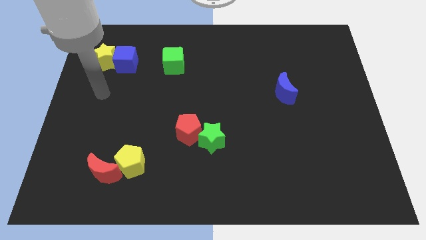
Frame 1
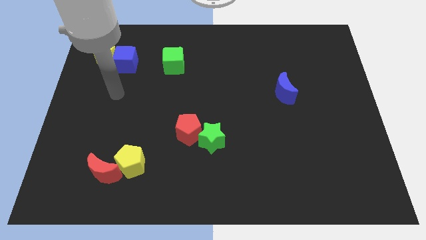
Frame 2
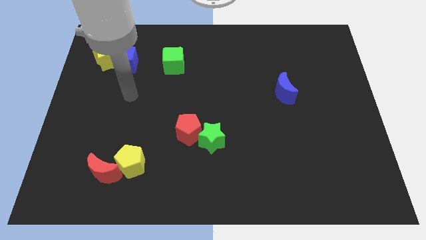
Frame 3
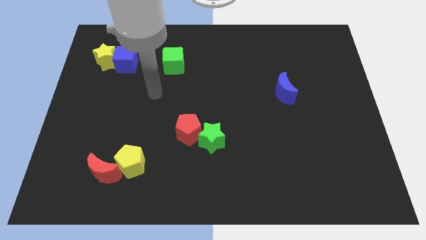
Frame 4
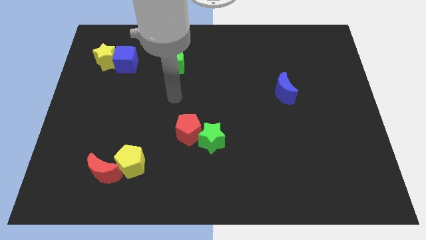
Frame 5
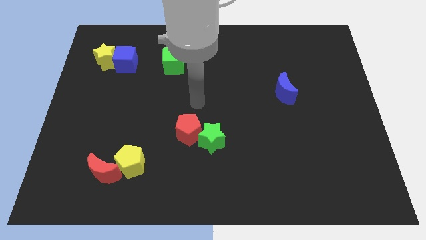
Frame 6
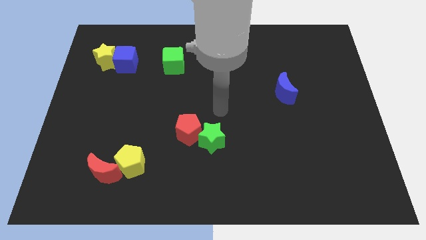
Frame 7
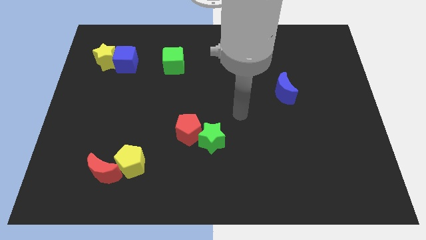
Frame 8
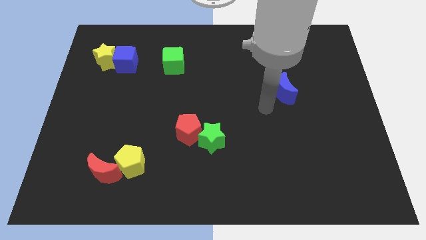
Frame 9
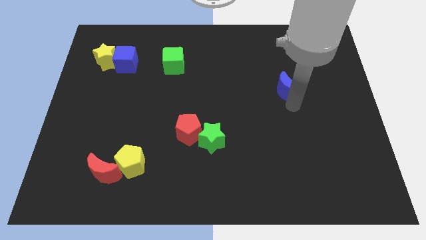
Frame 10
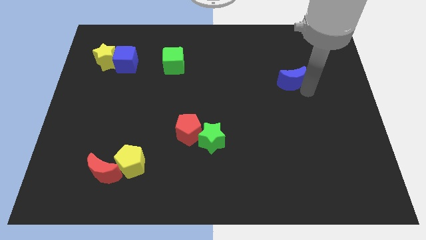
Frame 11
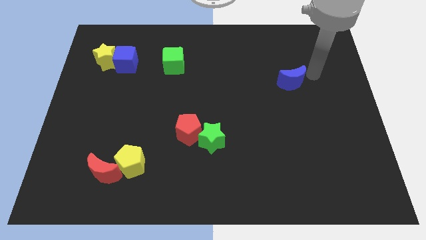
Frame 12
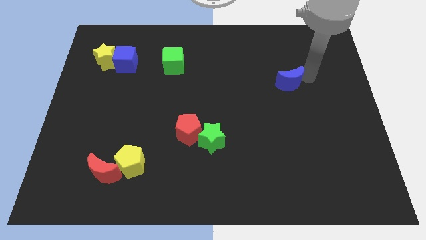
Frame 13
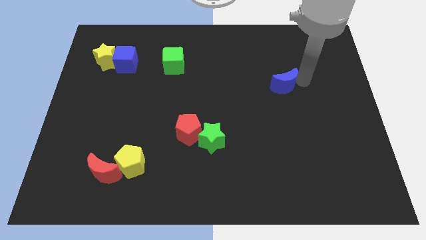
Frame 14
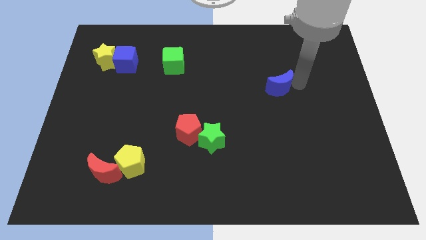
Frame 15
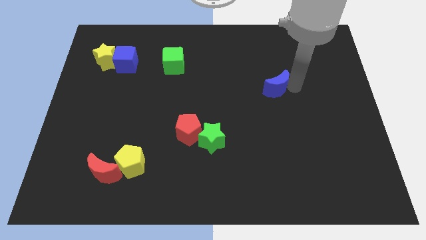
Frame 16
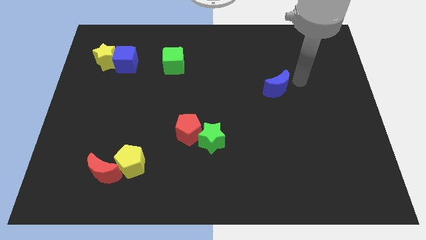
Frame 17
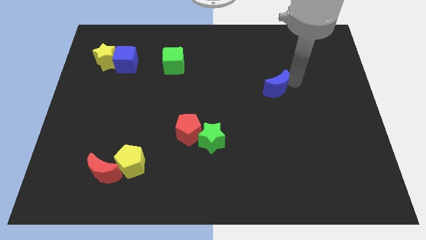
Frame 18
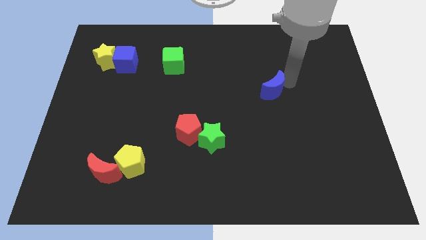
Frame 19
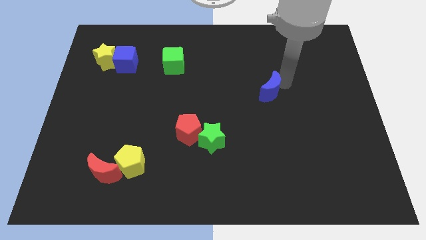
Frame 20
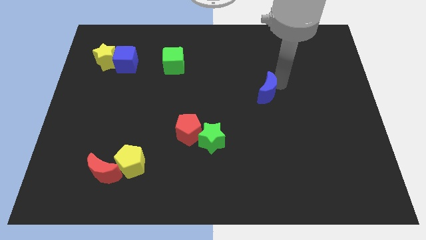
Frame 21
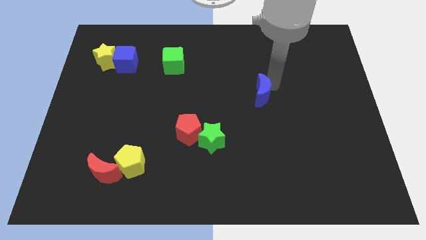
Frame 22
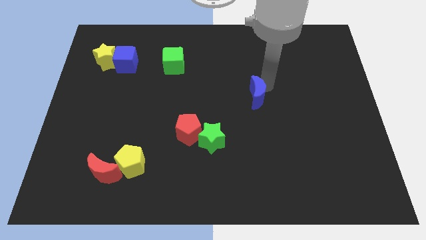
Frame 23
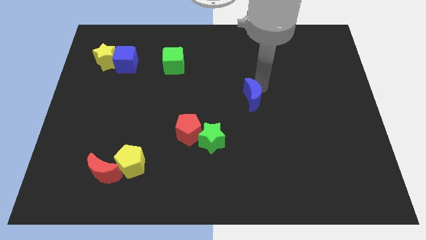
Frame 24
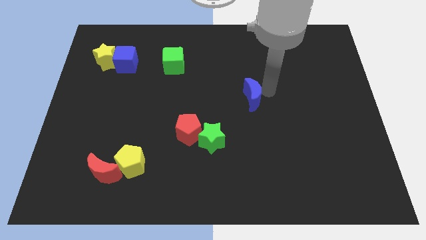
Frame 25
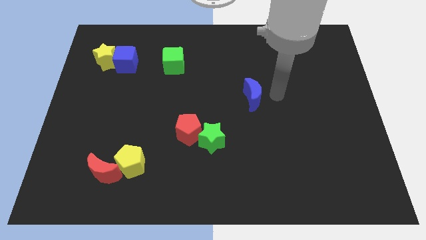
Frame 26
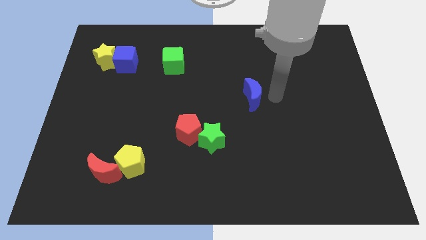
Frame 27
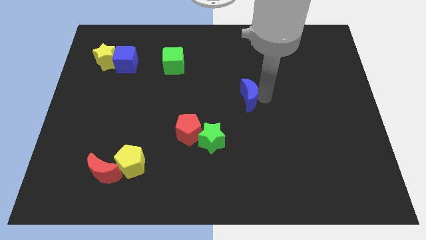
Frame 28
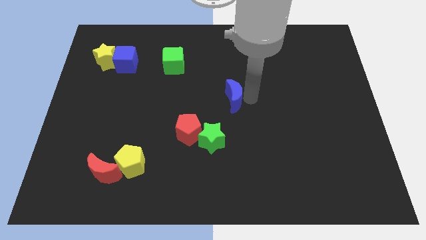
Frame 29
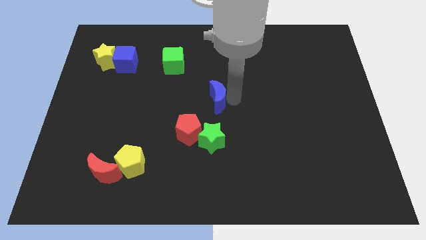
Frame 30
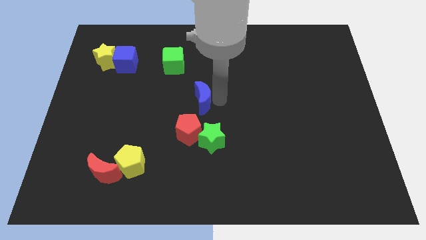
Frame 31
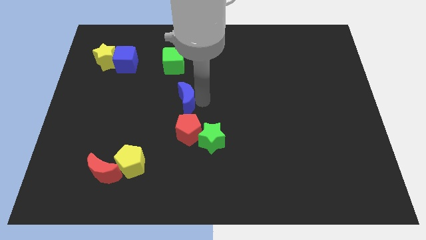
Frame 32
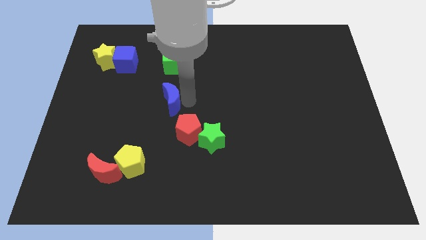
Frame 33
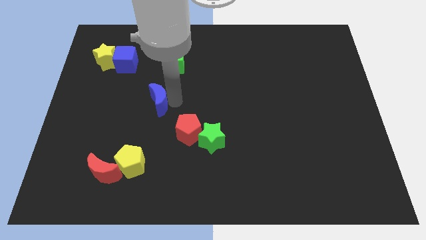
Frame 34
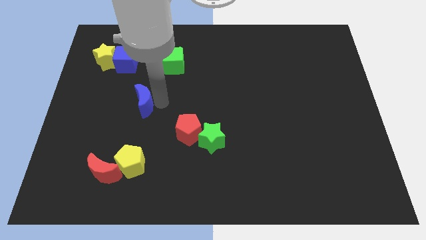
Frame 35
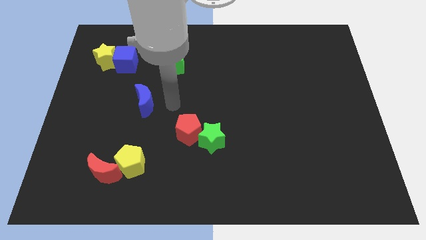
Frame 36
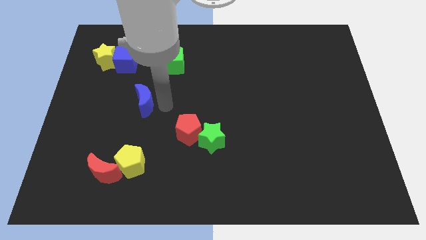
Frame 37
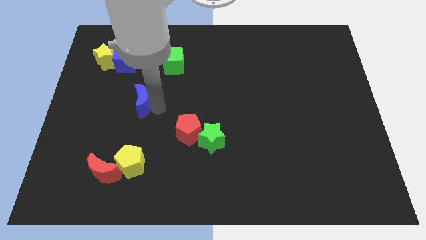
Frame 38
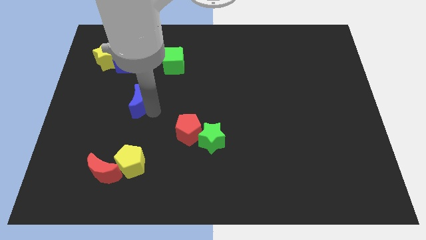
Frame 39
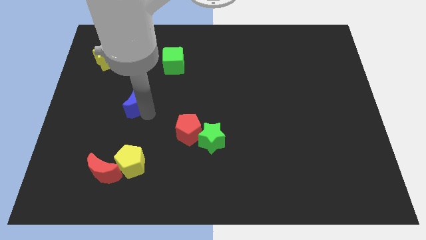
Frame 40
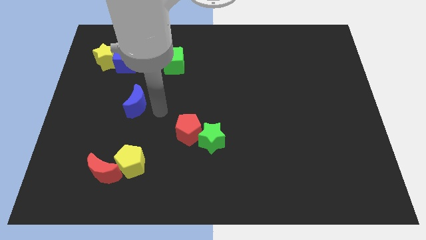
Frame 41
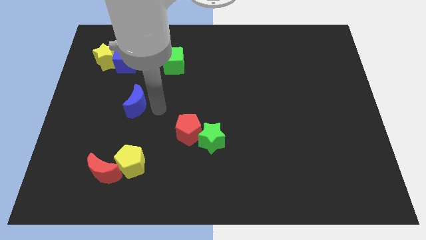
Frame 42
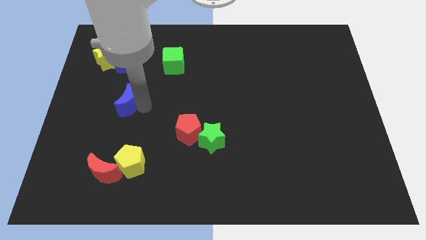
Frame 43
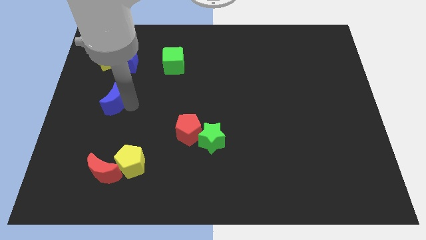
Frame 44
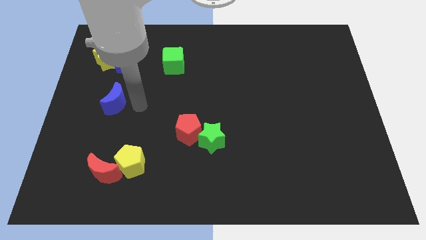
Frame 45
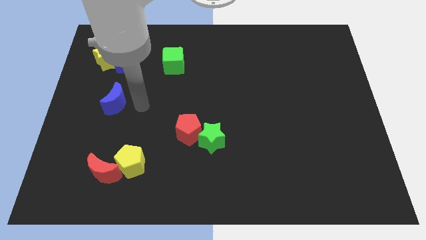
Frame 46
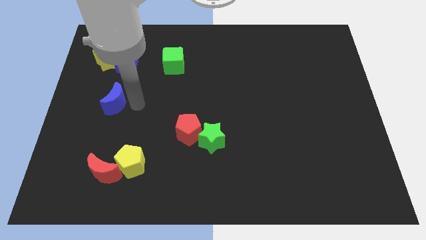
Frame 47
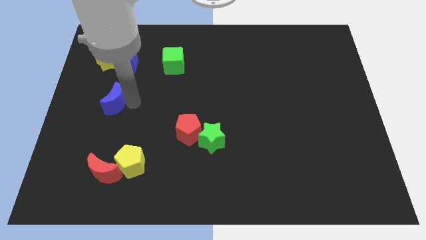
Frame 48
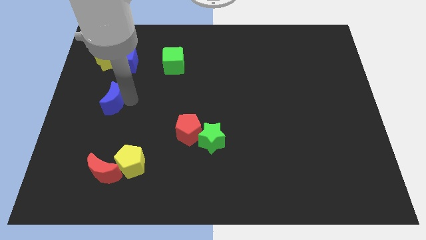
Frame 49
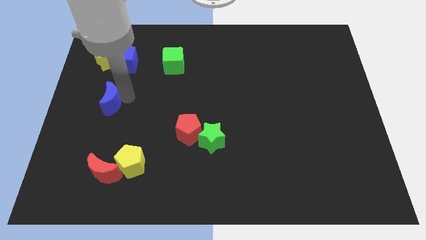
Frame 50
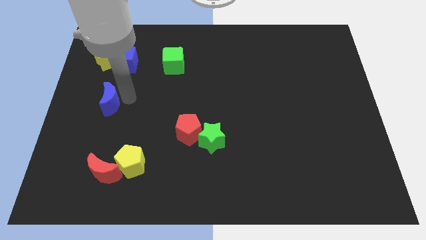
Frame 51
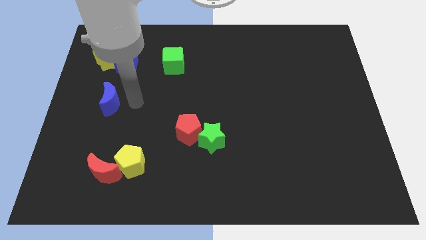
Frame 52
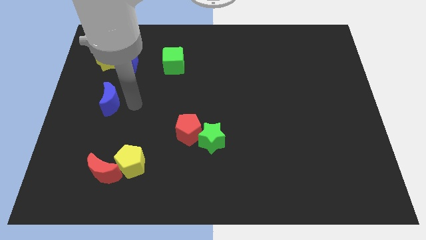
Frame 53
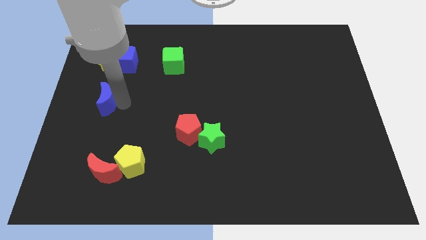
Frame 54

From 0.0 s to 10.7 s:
slide the blue moon to the center left

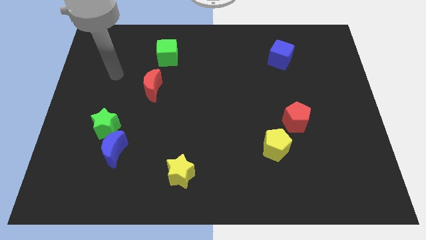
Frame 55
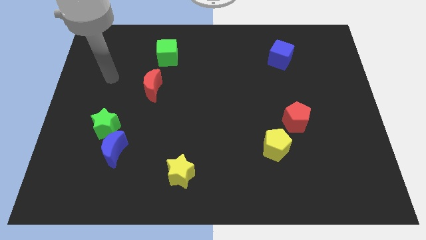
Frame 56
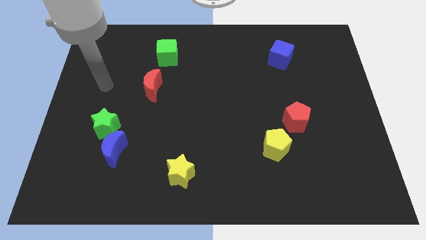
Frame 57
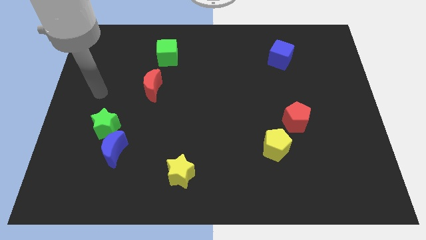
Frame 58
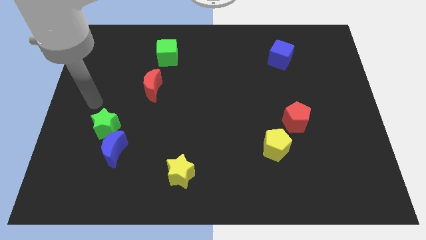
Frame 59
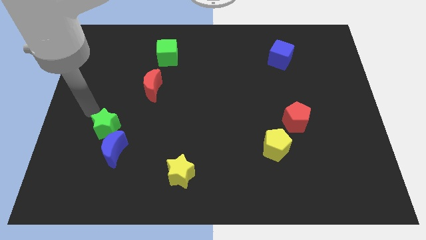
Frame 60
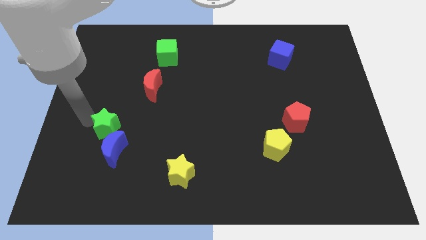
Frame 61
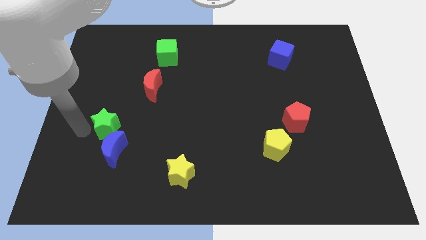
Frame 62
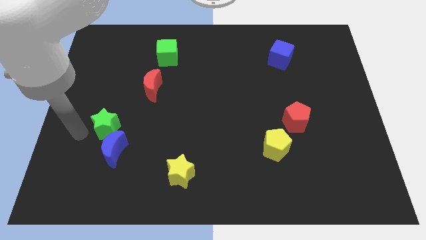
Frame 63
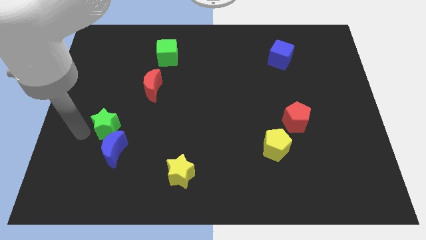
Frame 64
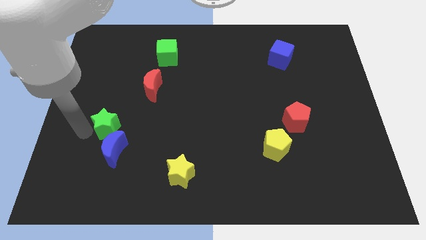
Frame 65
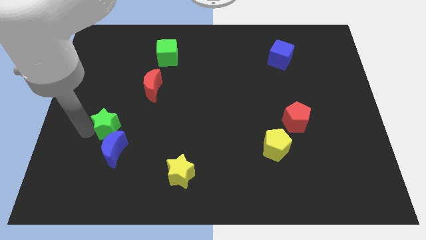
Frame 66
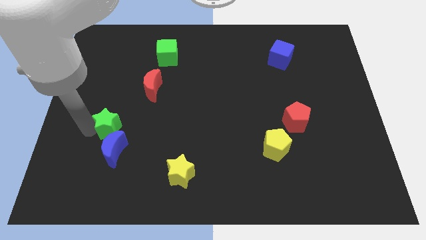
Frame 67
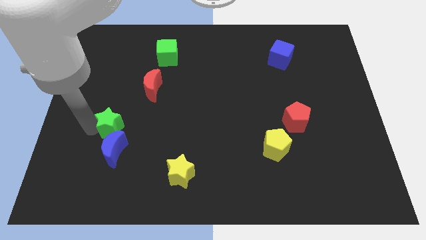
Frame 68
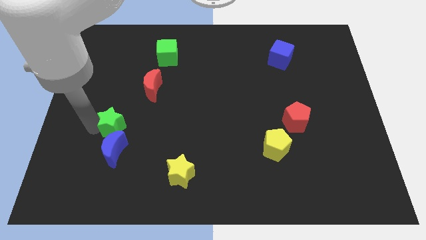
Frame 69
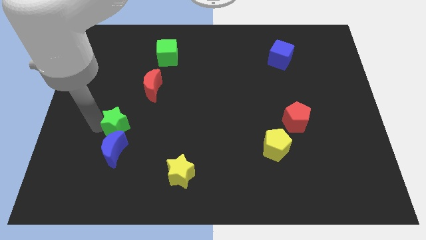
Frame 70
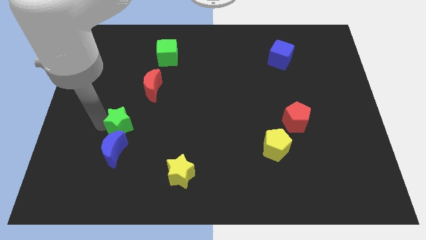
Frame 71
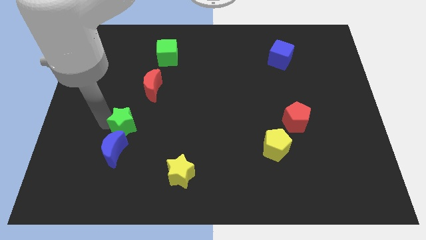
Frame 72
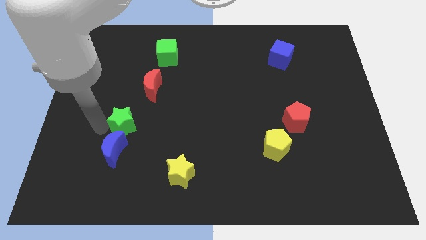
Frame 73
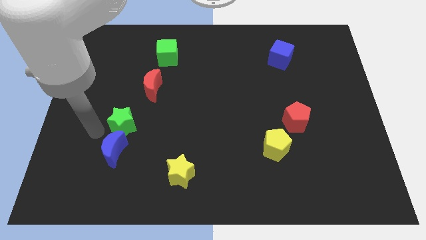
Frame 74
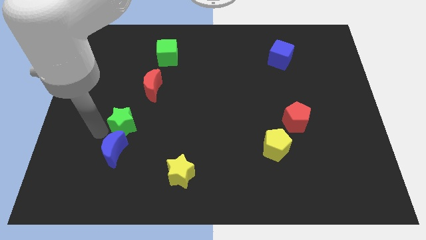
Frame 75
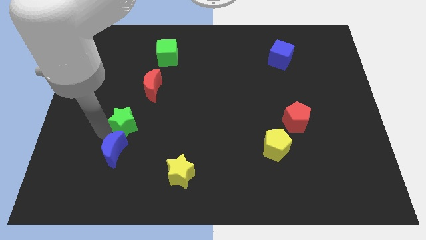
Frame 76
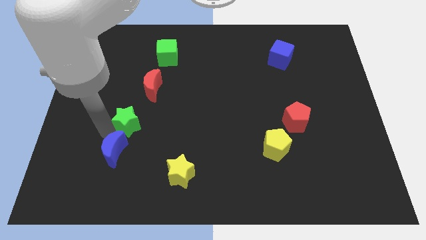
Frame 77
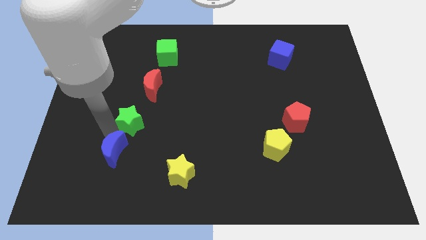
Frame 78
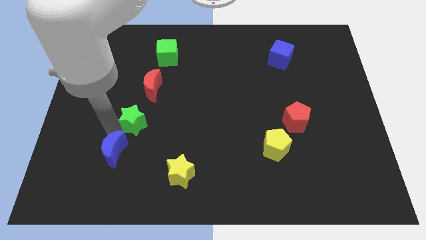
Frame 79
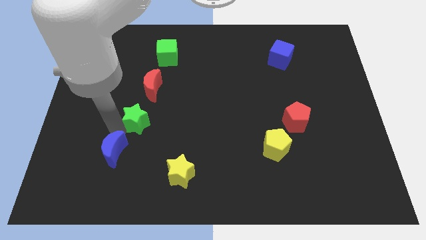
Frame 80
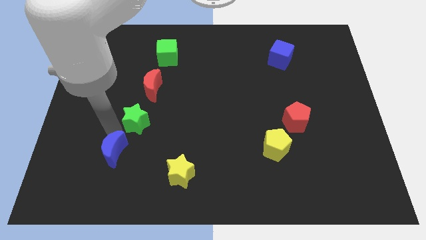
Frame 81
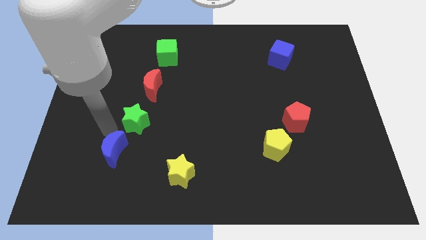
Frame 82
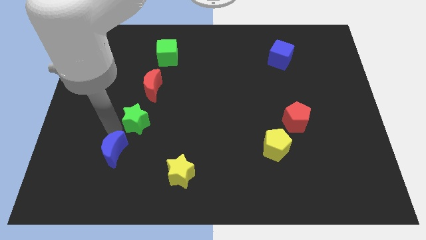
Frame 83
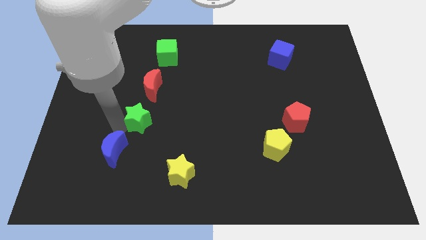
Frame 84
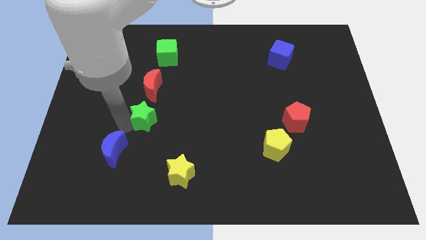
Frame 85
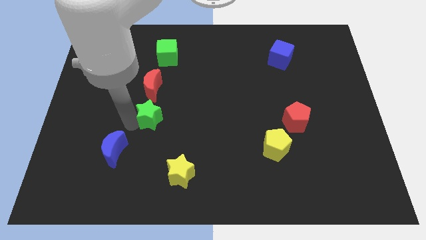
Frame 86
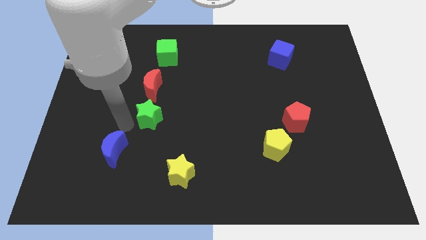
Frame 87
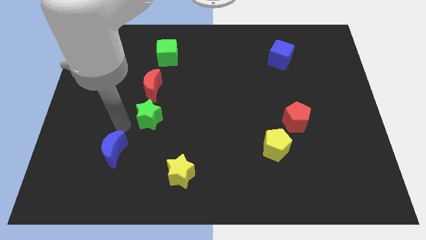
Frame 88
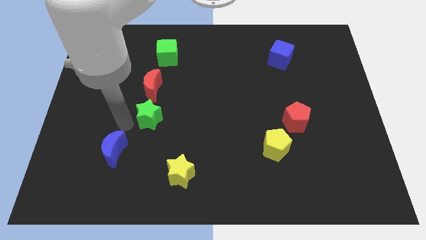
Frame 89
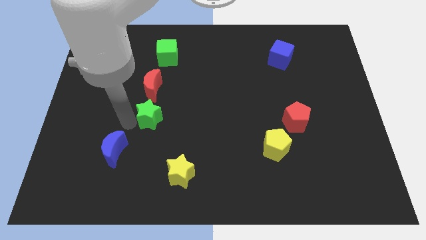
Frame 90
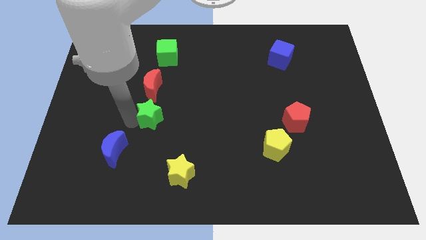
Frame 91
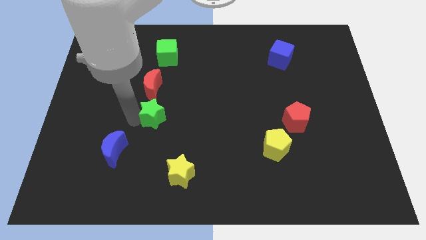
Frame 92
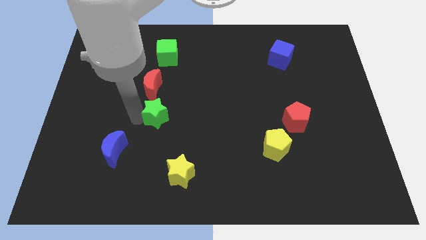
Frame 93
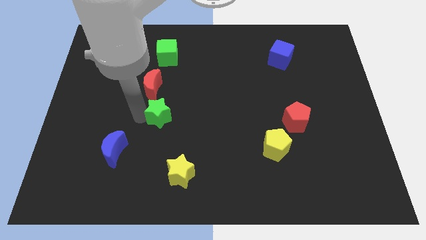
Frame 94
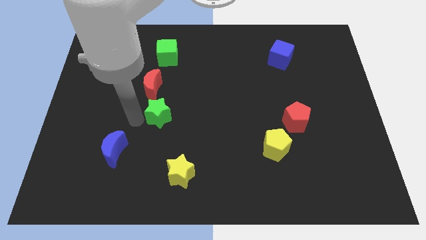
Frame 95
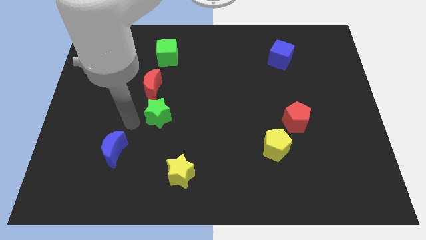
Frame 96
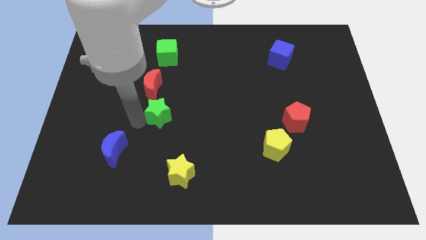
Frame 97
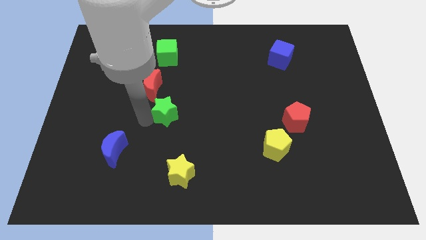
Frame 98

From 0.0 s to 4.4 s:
slide the green star to the middle
